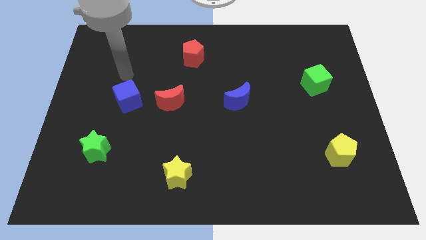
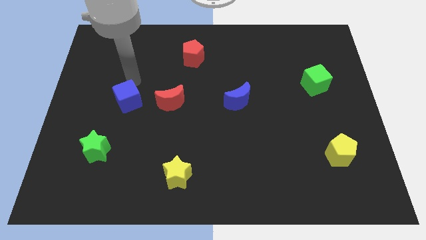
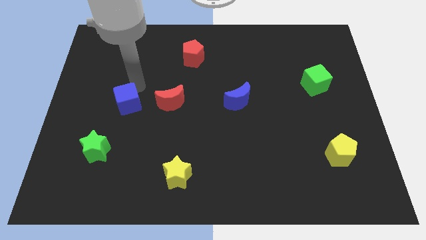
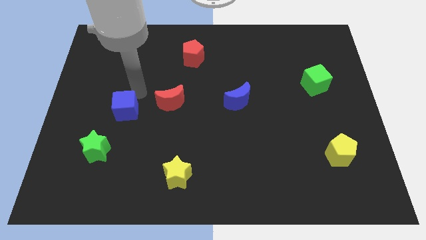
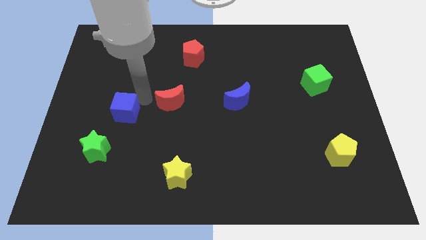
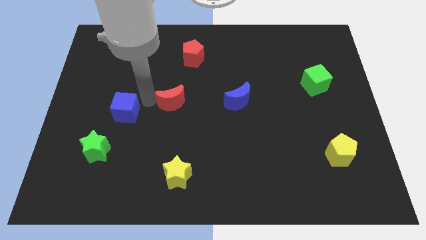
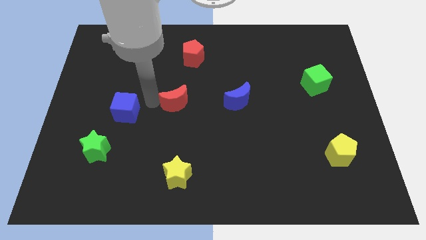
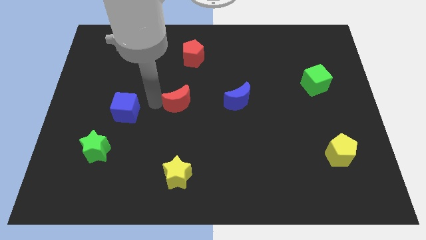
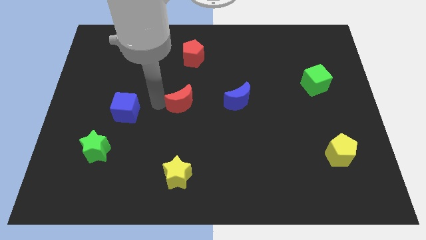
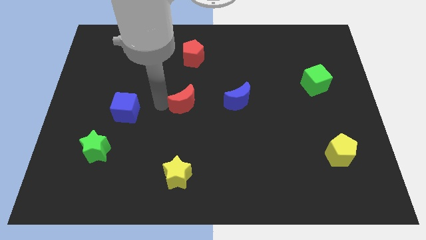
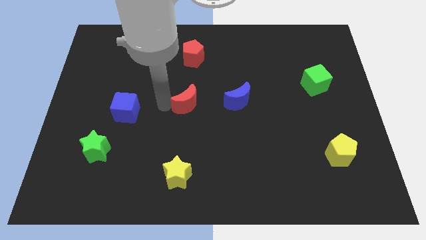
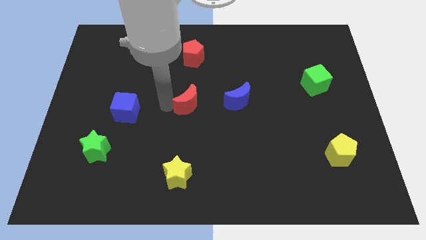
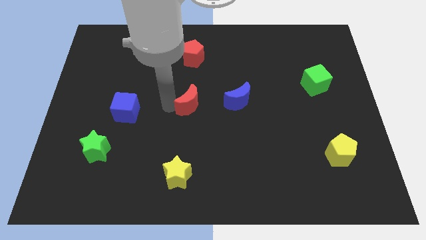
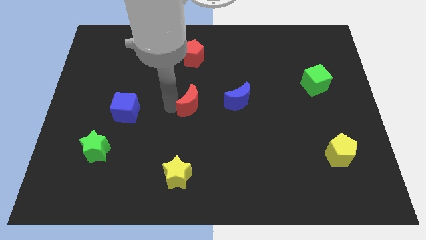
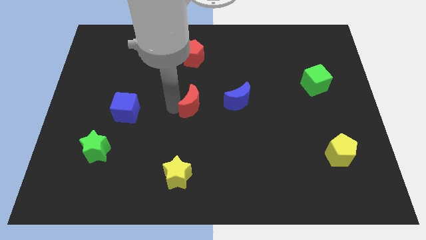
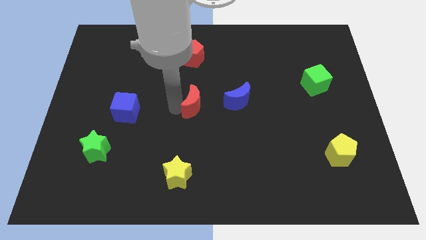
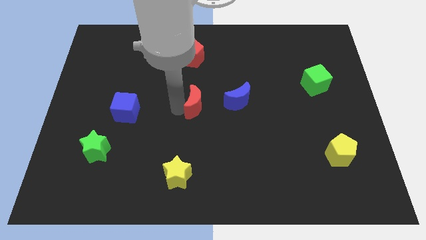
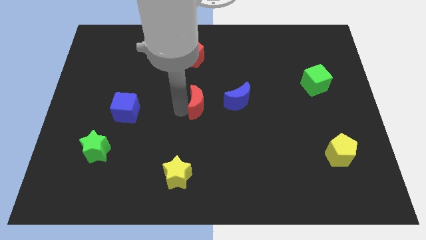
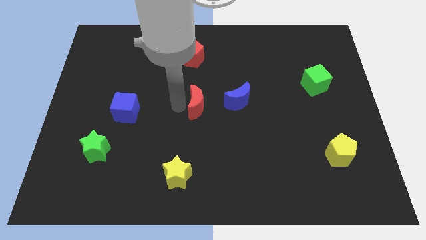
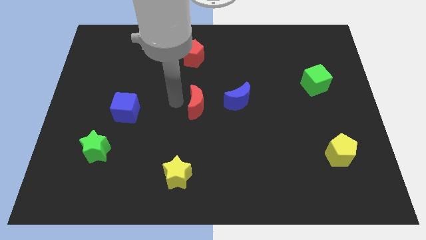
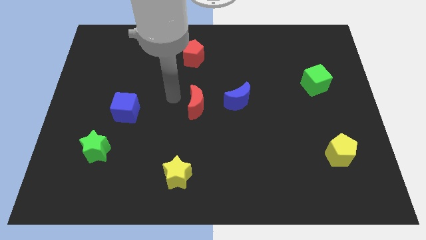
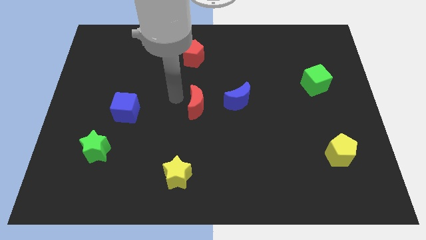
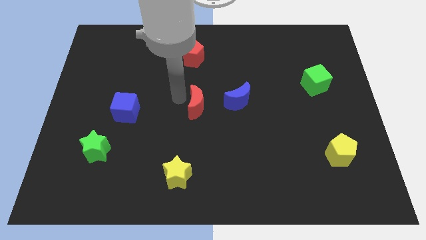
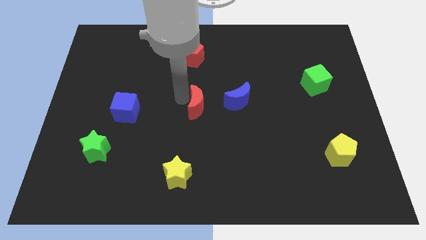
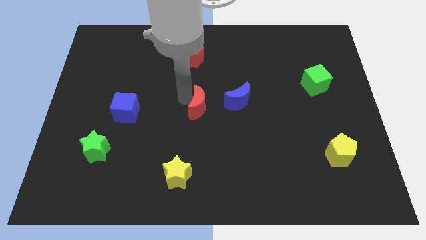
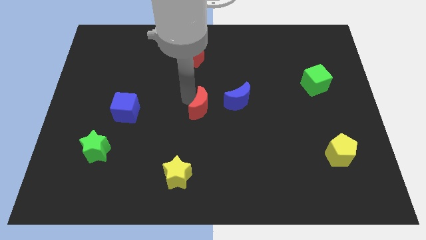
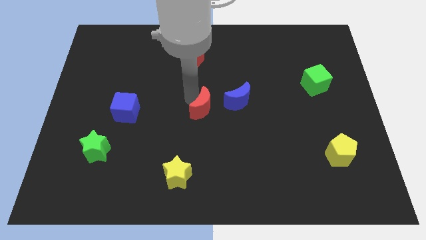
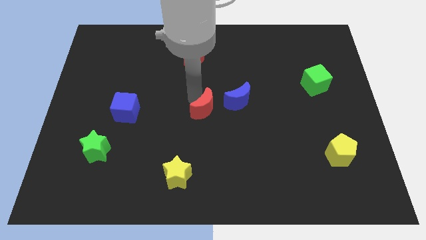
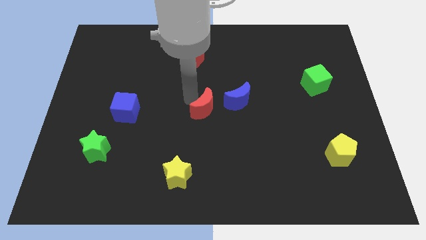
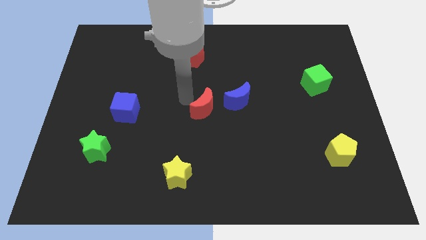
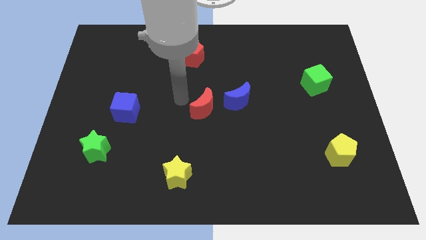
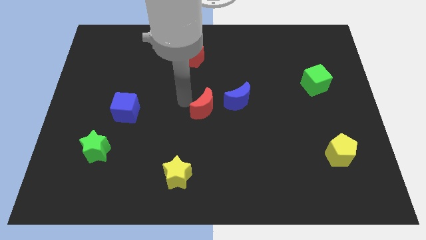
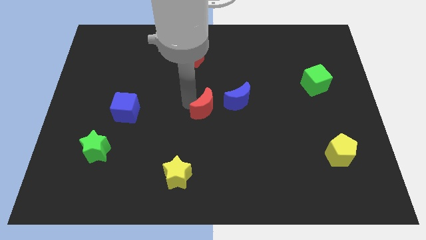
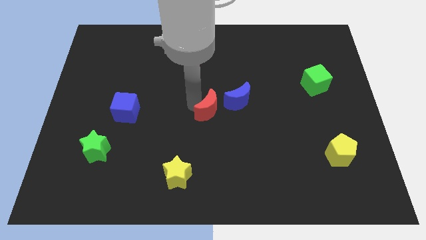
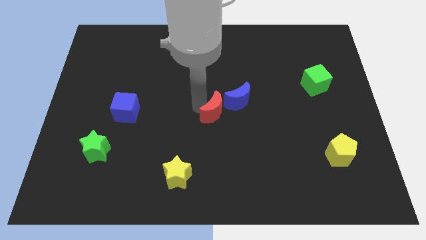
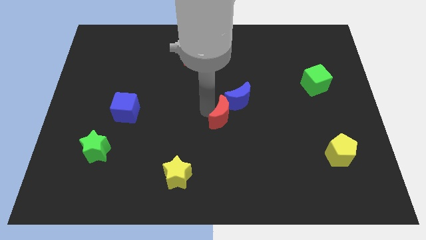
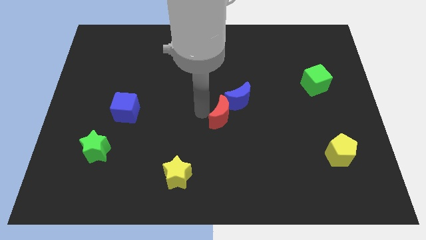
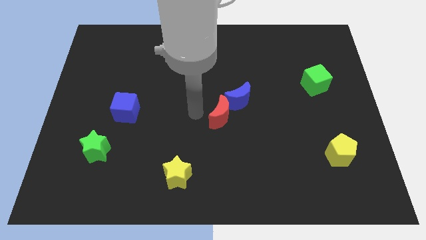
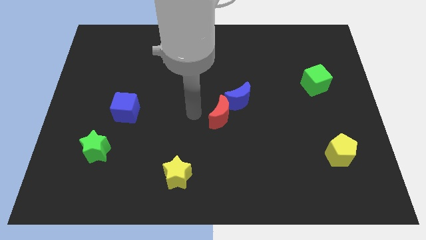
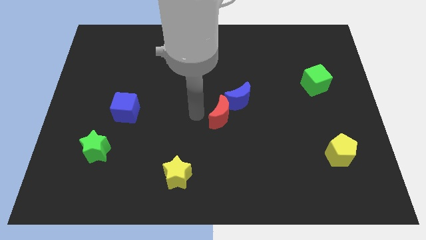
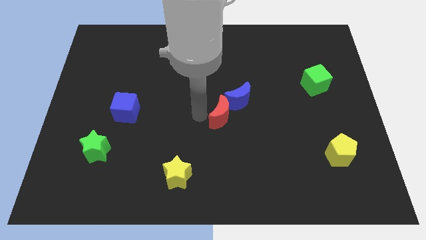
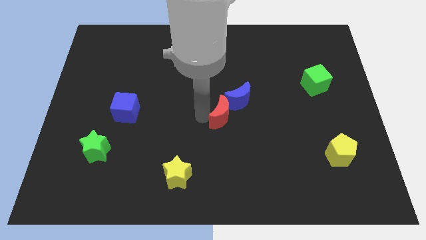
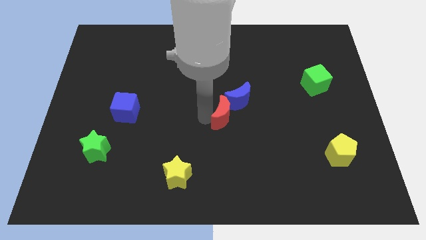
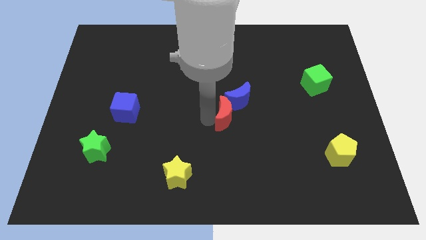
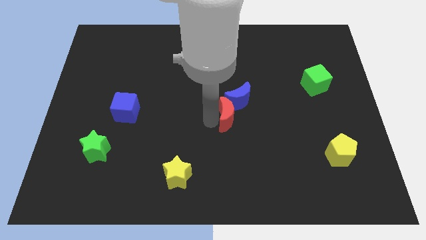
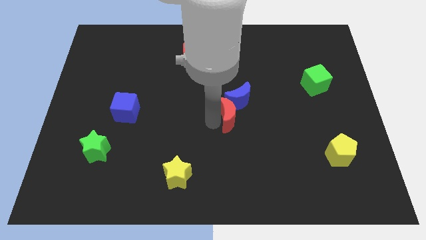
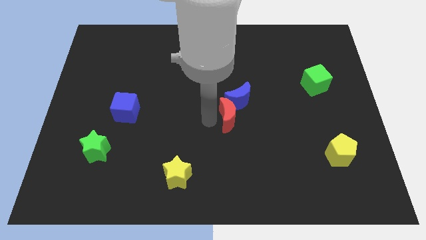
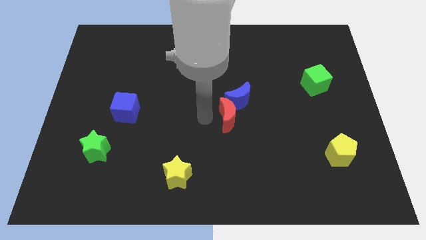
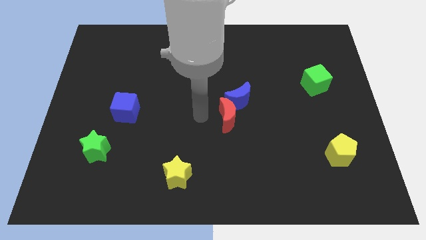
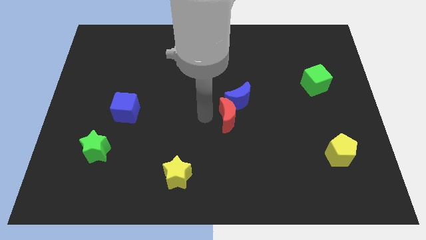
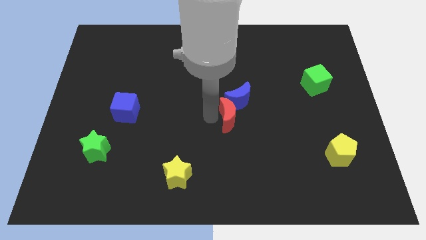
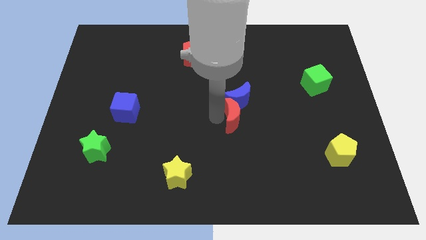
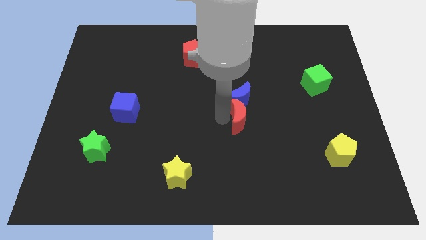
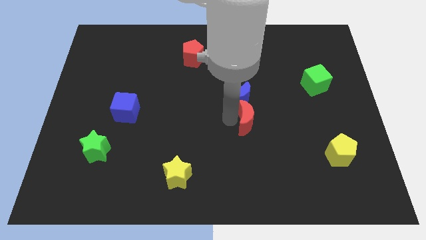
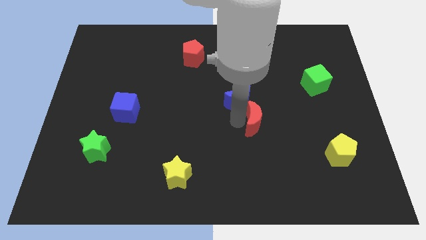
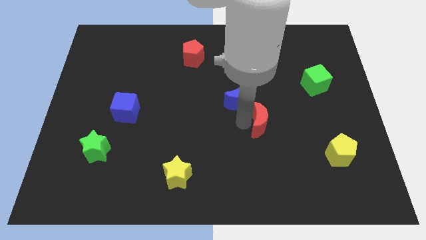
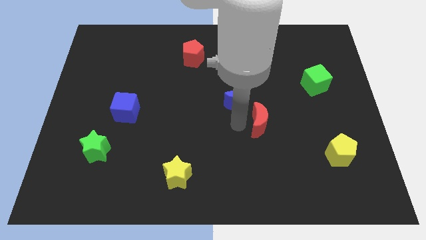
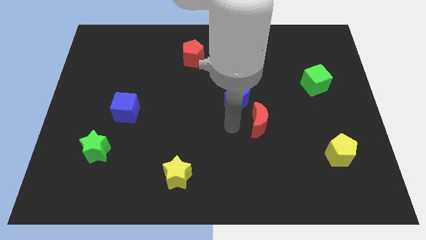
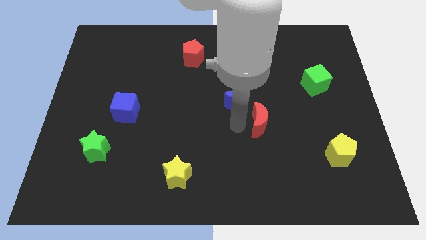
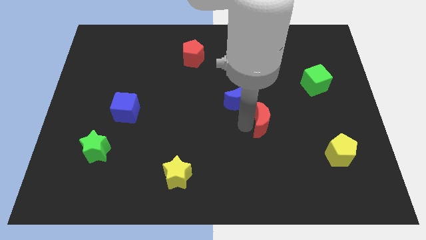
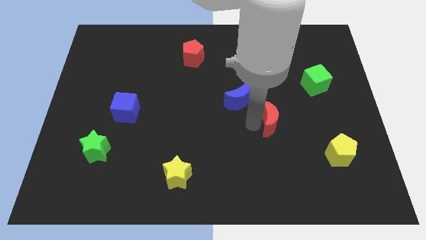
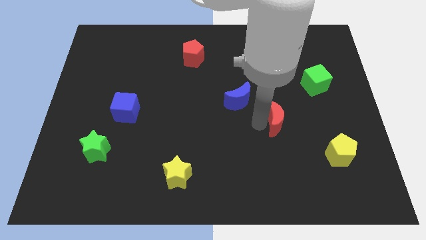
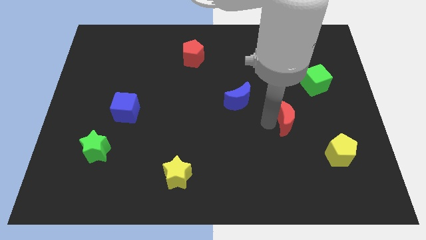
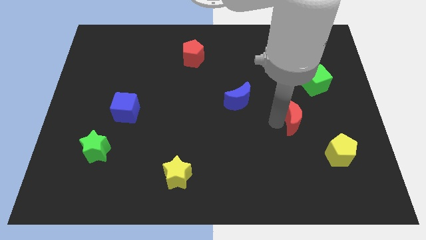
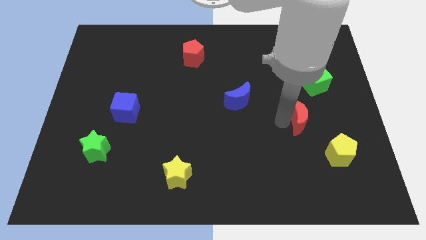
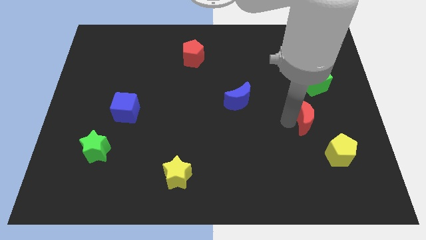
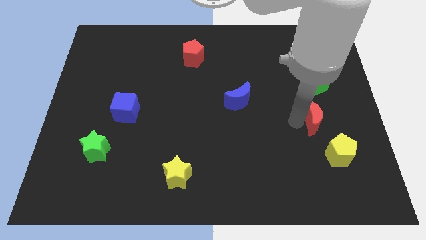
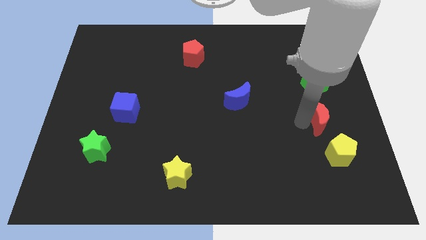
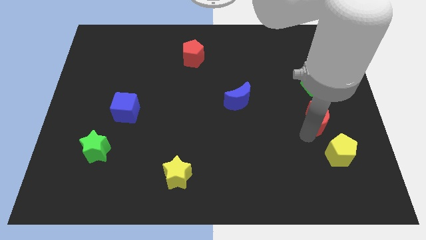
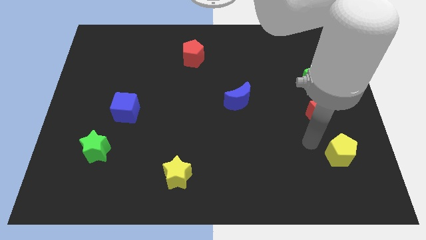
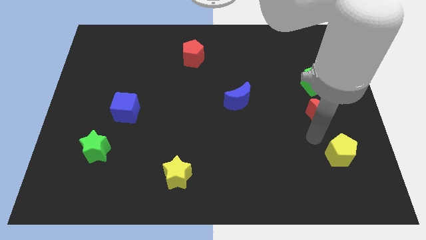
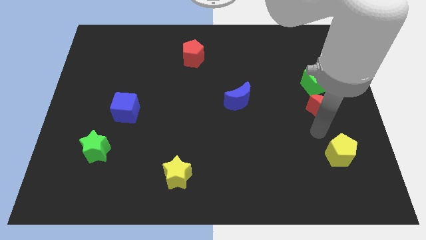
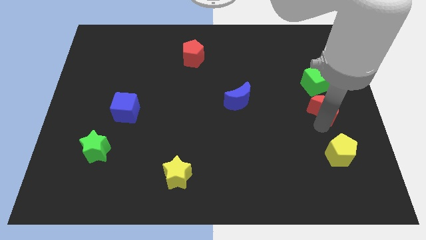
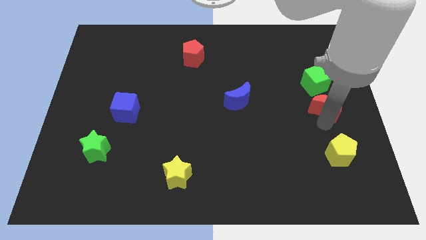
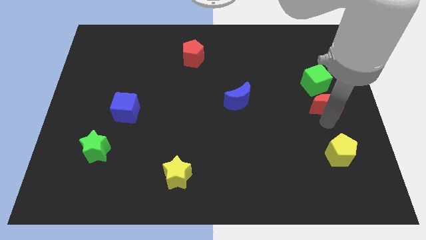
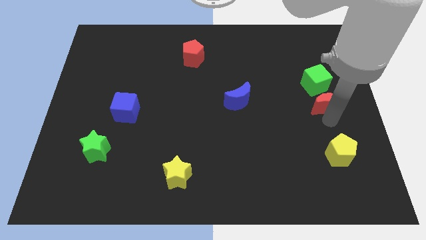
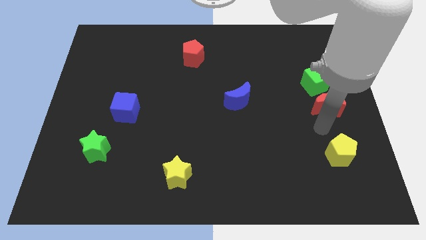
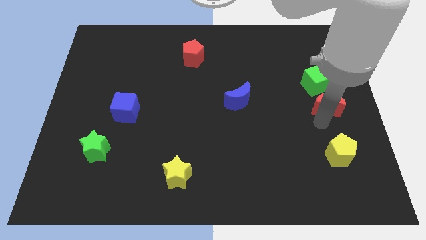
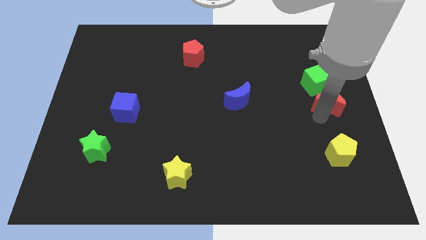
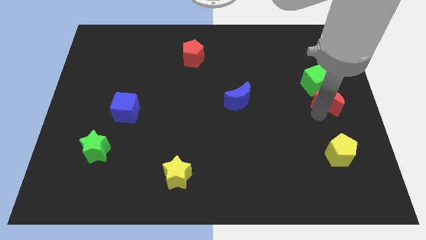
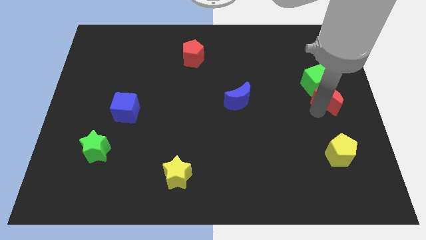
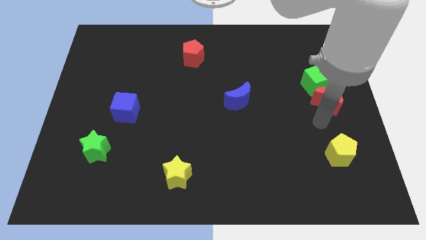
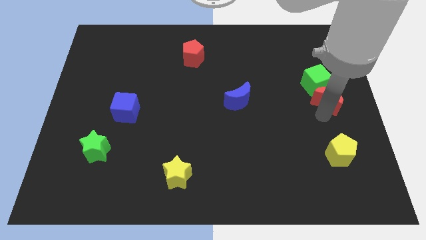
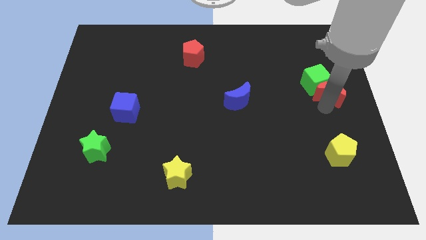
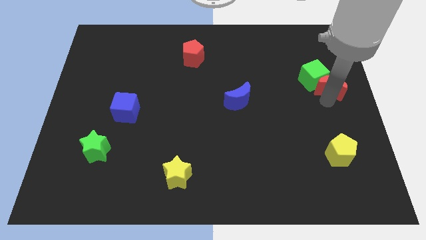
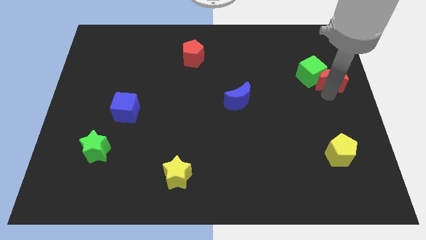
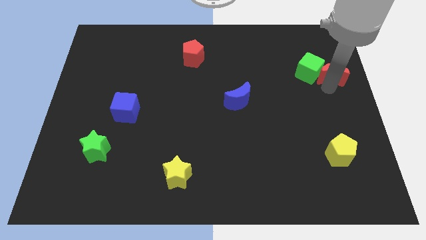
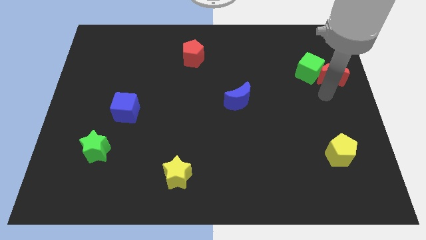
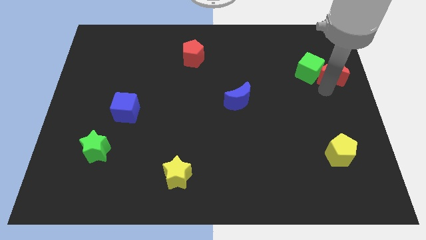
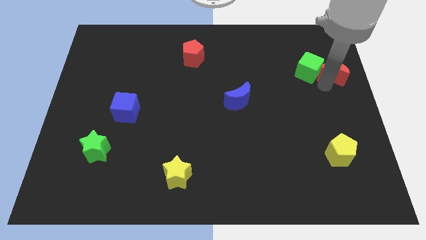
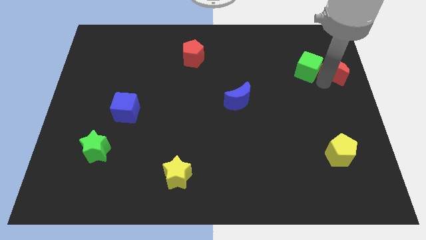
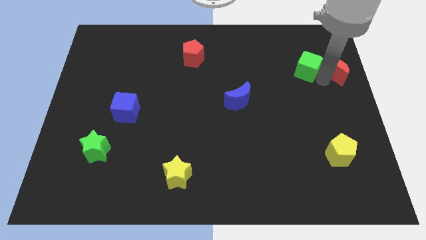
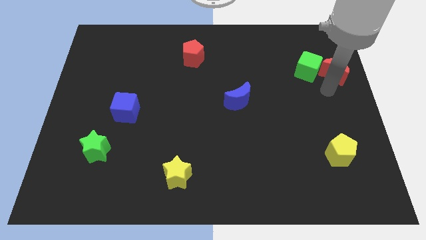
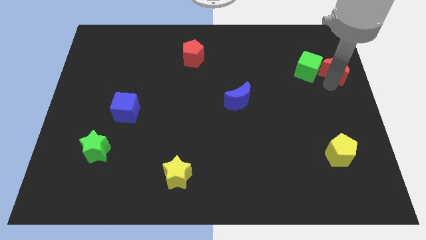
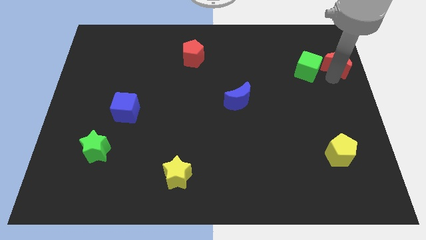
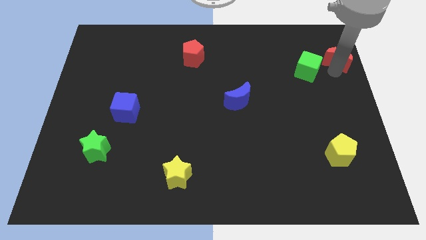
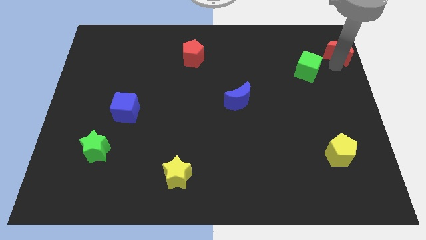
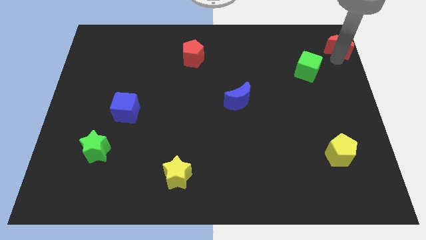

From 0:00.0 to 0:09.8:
slide the red moon to the top right of the board
